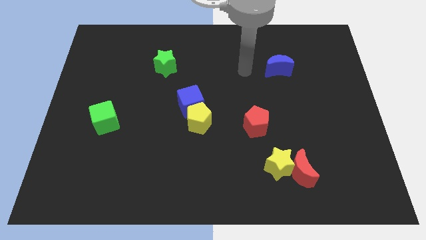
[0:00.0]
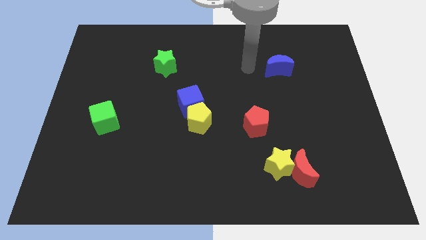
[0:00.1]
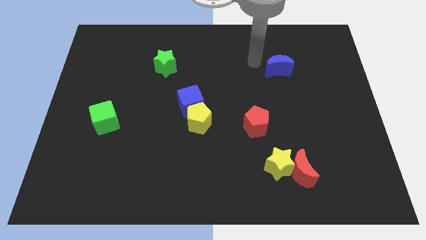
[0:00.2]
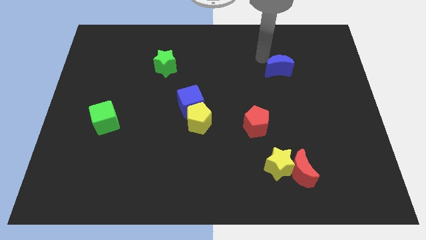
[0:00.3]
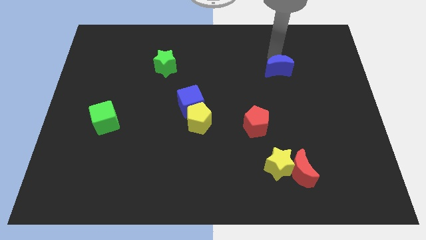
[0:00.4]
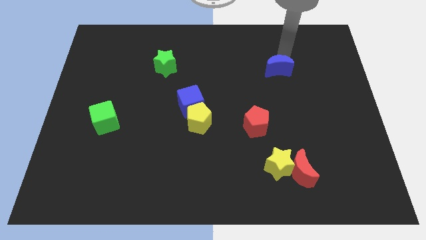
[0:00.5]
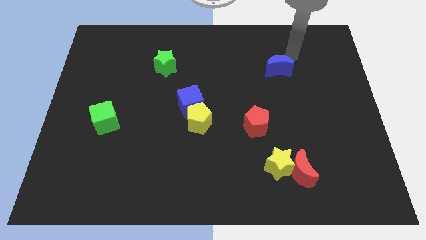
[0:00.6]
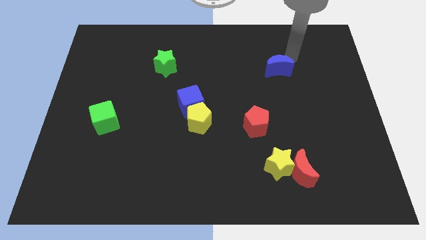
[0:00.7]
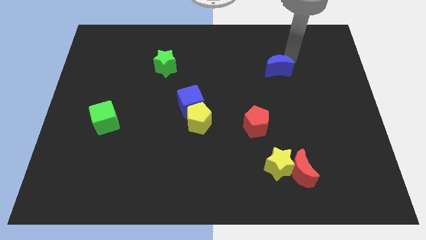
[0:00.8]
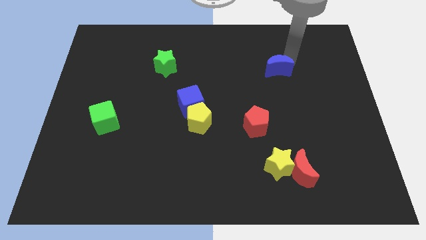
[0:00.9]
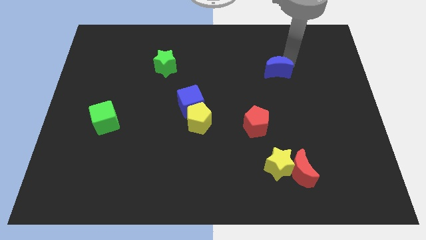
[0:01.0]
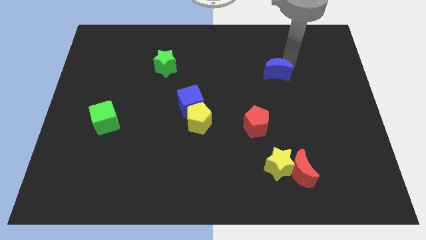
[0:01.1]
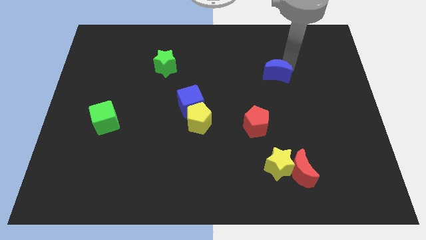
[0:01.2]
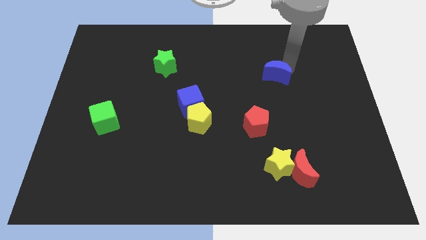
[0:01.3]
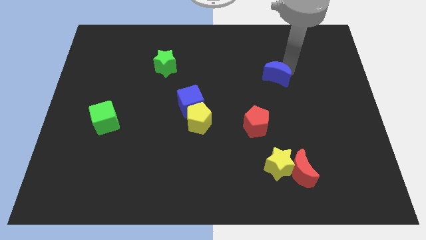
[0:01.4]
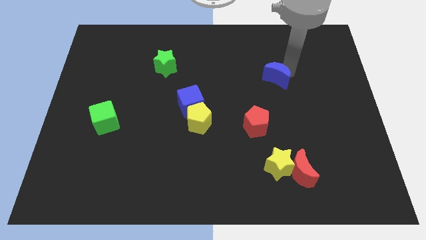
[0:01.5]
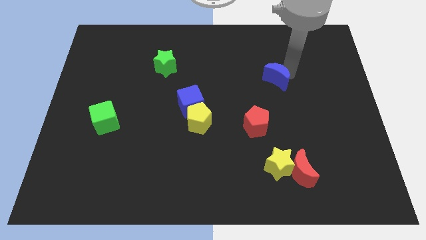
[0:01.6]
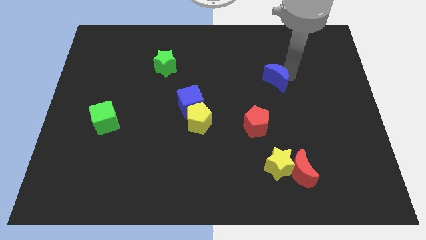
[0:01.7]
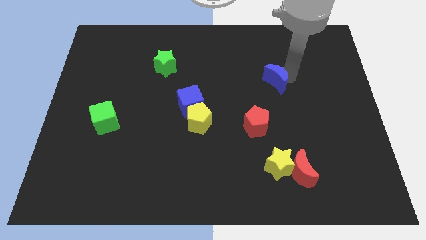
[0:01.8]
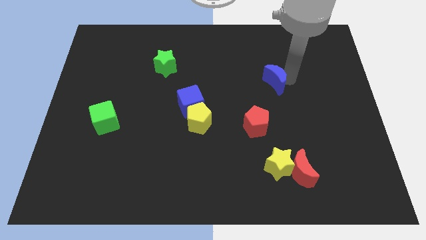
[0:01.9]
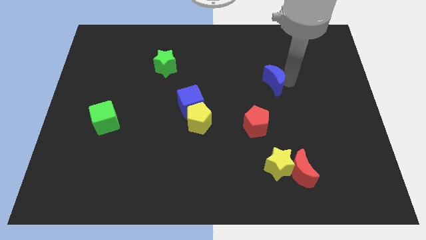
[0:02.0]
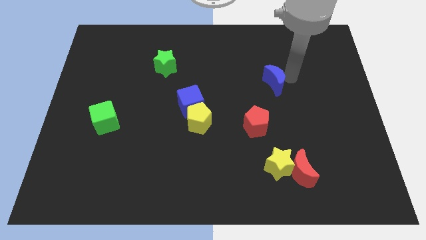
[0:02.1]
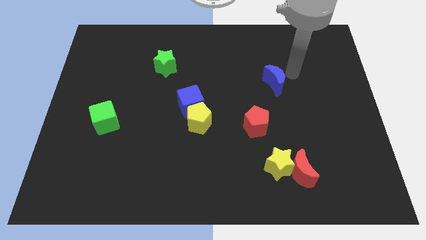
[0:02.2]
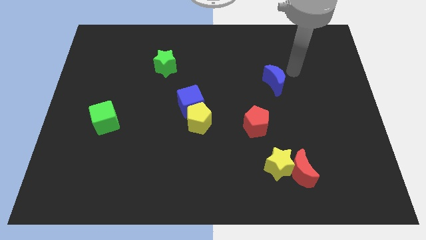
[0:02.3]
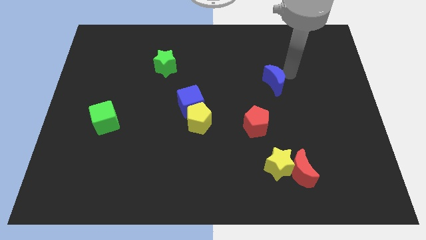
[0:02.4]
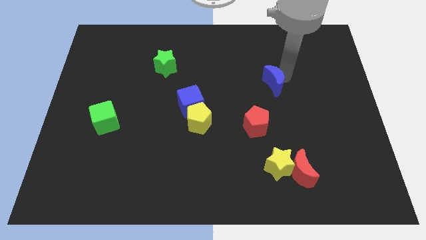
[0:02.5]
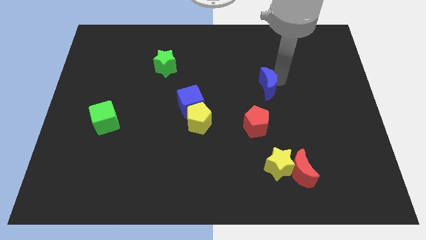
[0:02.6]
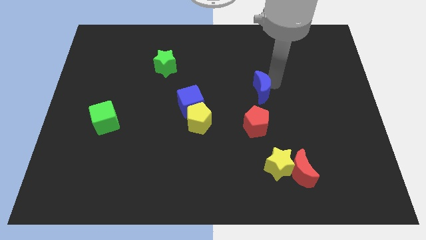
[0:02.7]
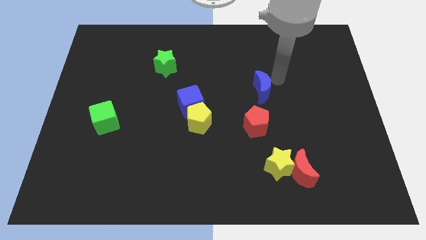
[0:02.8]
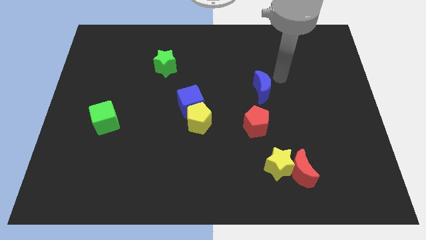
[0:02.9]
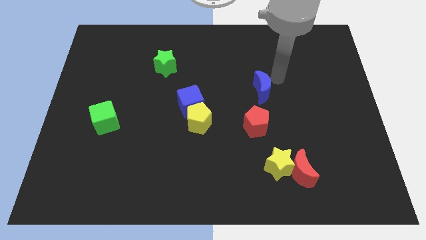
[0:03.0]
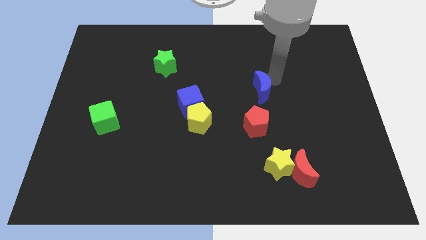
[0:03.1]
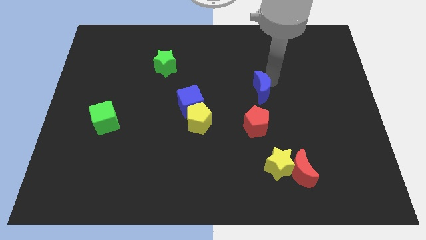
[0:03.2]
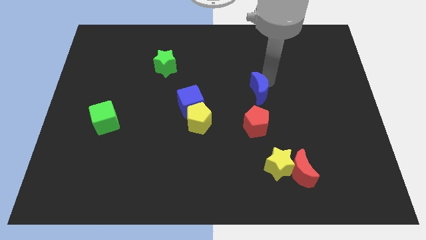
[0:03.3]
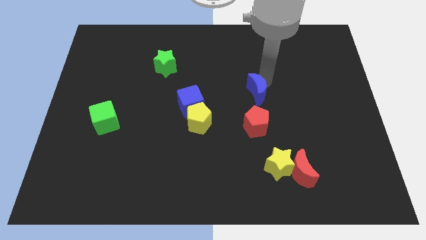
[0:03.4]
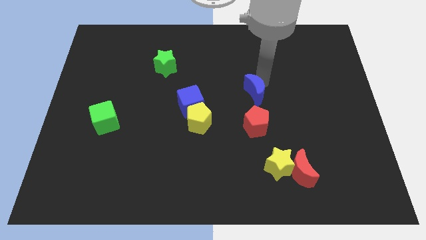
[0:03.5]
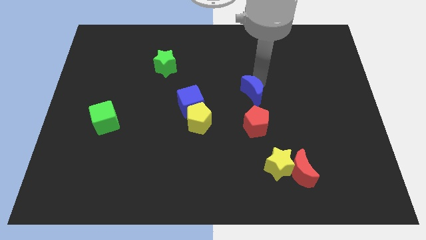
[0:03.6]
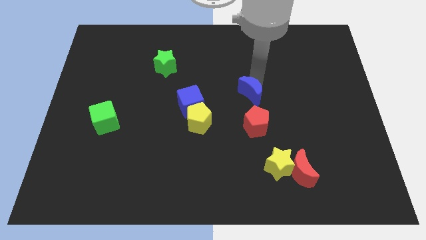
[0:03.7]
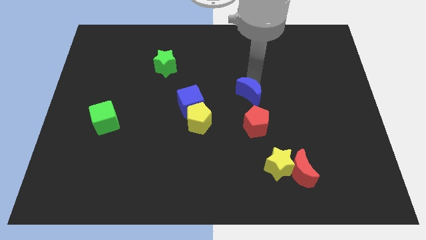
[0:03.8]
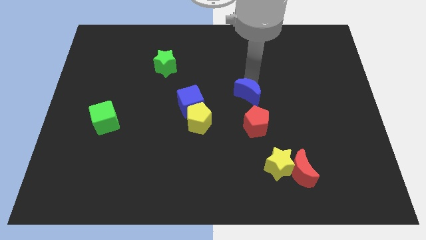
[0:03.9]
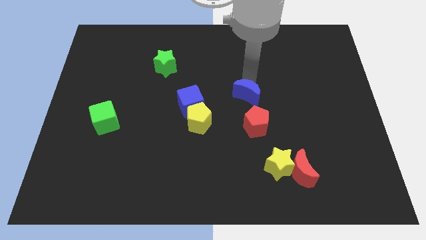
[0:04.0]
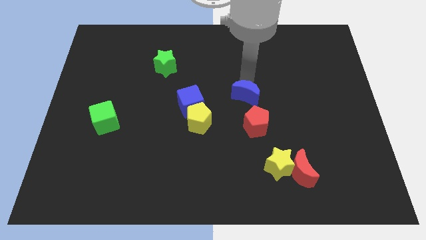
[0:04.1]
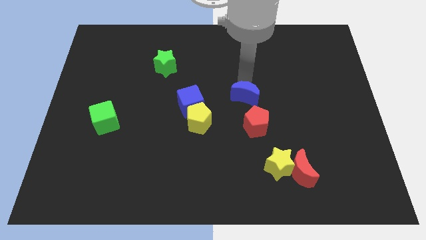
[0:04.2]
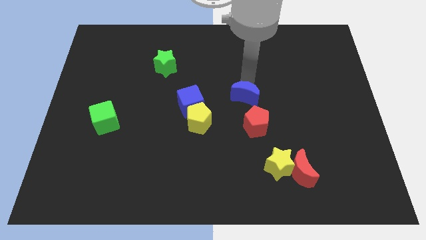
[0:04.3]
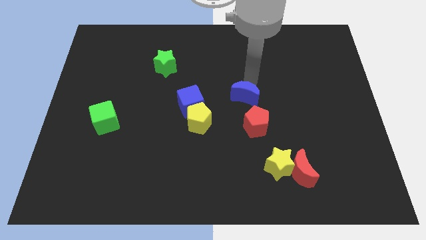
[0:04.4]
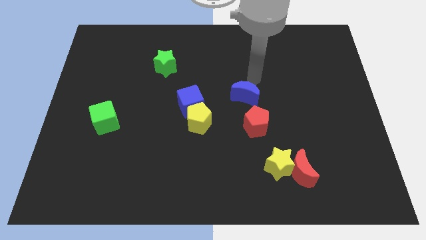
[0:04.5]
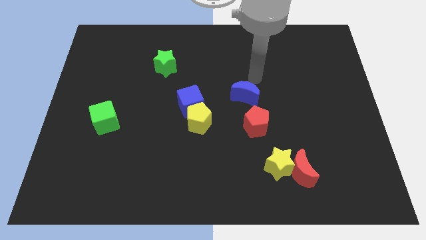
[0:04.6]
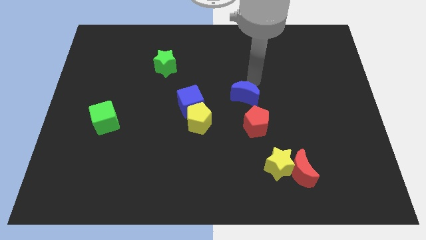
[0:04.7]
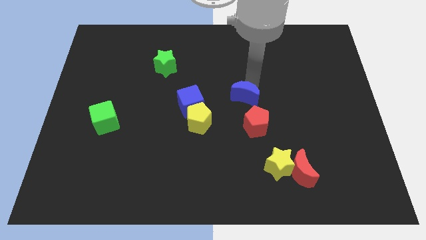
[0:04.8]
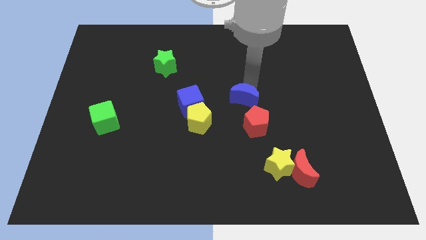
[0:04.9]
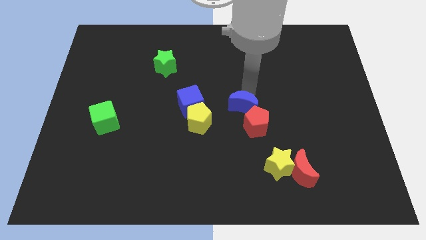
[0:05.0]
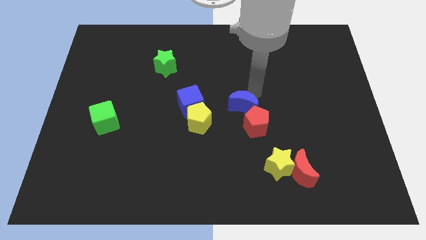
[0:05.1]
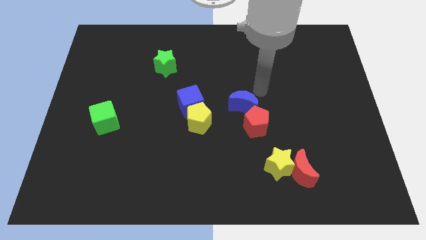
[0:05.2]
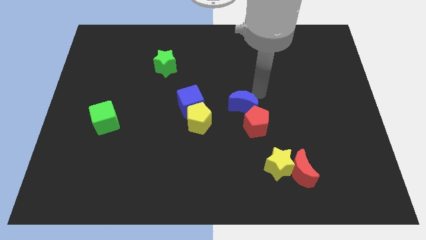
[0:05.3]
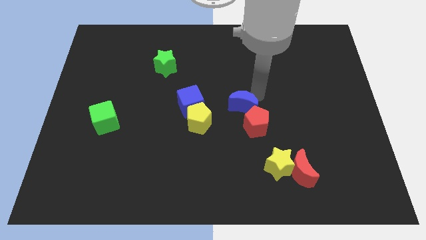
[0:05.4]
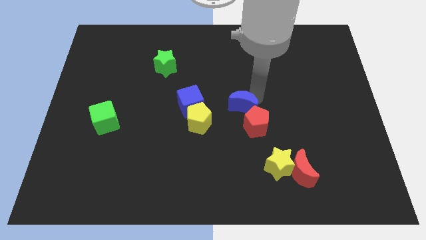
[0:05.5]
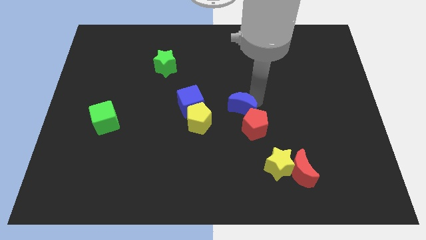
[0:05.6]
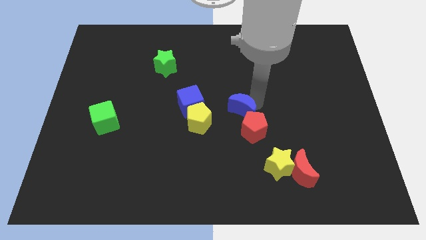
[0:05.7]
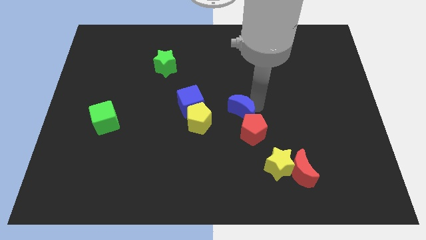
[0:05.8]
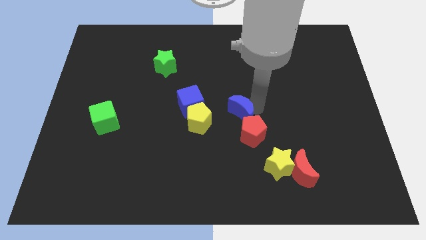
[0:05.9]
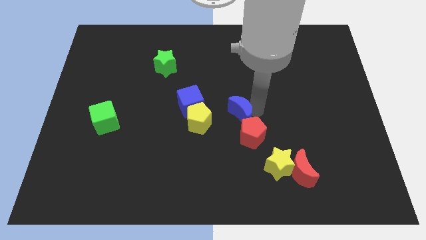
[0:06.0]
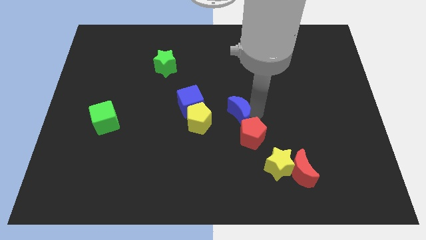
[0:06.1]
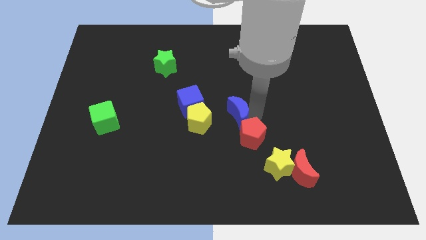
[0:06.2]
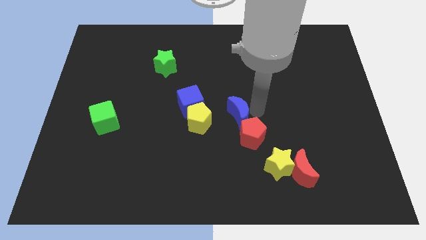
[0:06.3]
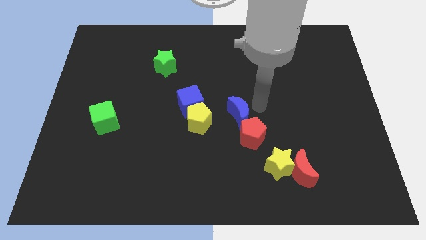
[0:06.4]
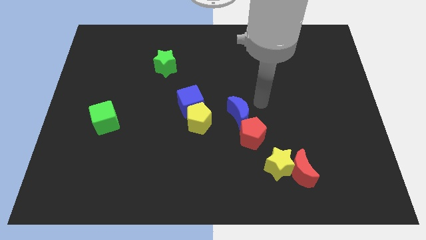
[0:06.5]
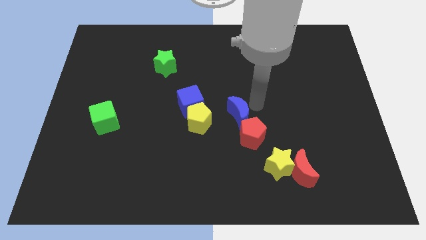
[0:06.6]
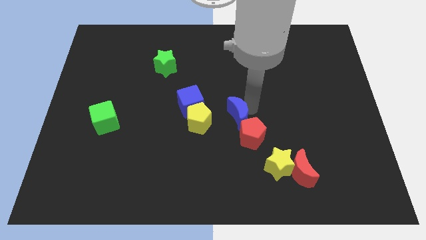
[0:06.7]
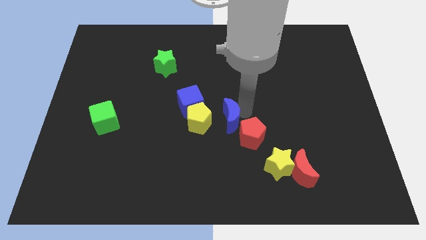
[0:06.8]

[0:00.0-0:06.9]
slide the blue moon diagonally down and to the left

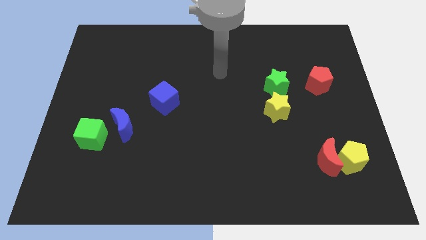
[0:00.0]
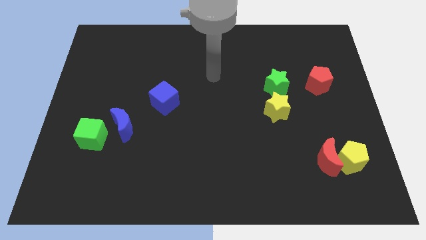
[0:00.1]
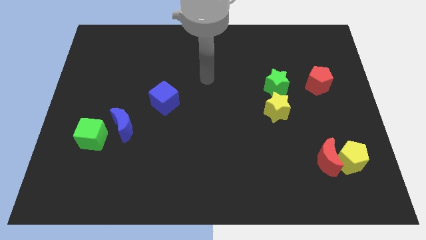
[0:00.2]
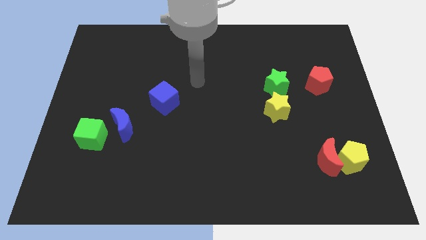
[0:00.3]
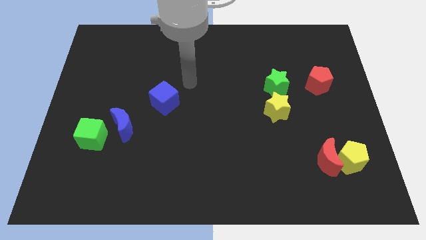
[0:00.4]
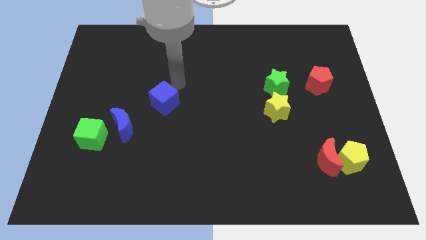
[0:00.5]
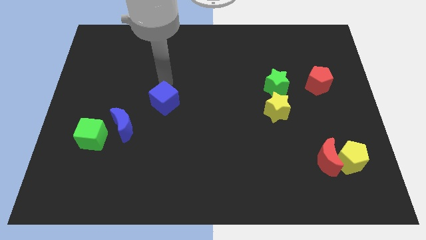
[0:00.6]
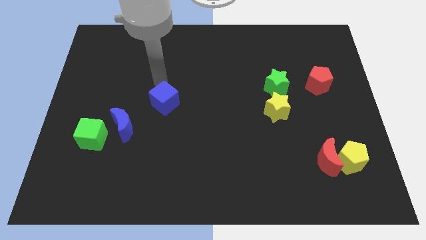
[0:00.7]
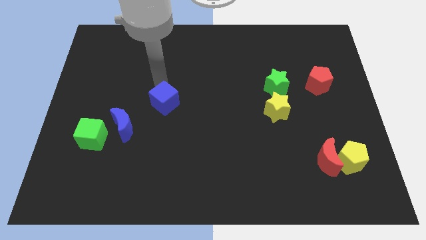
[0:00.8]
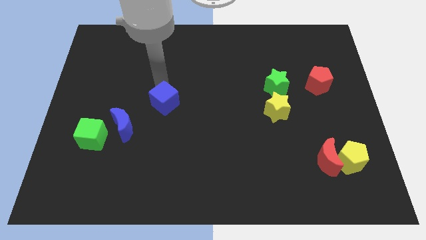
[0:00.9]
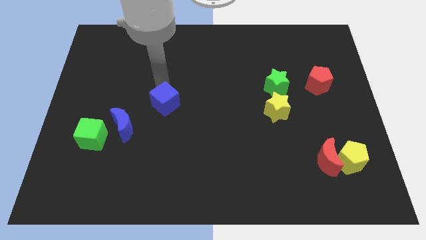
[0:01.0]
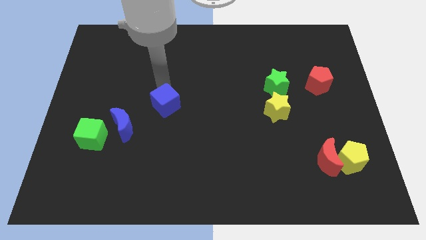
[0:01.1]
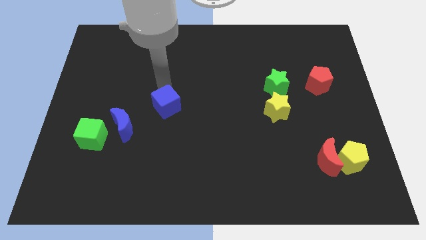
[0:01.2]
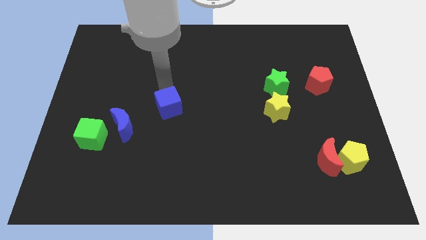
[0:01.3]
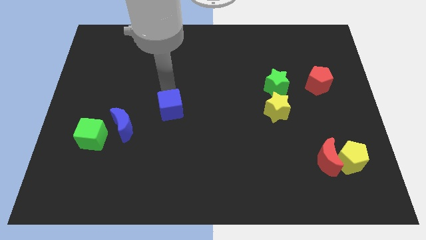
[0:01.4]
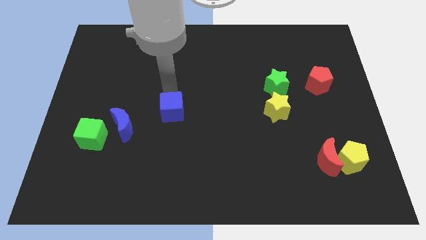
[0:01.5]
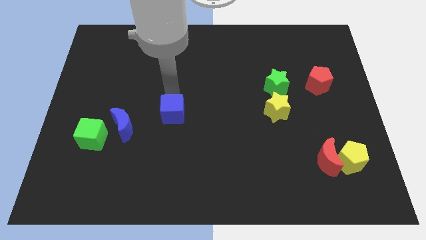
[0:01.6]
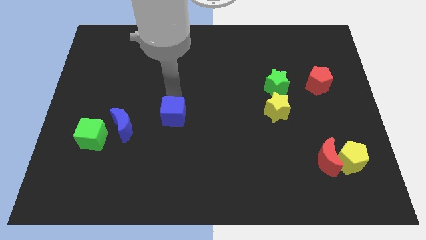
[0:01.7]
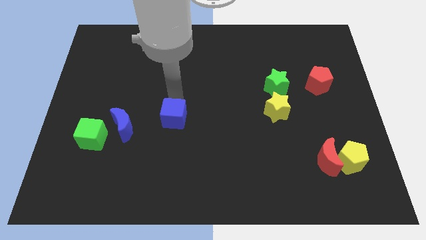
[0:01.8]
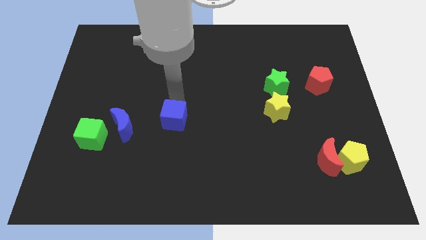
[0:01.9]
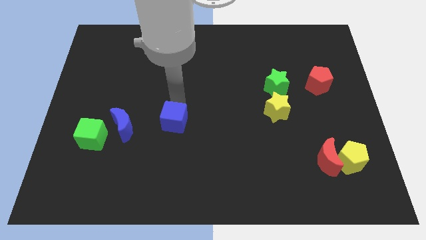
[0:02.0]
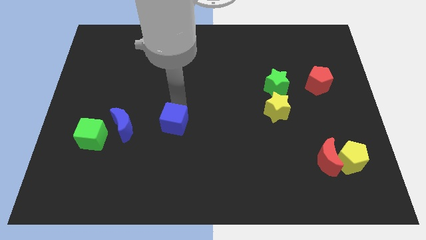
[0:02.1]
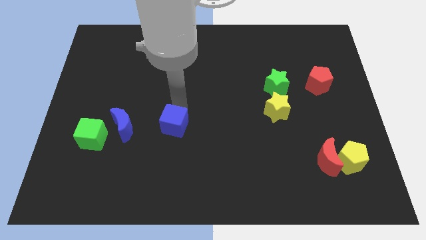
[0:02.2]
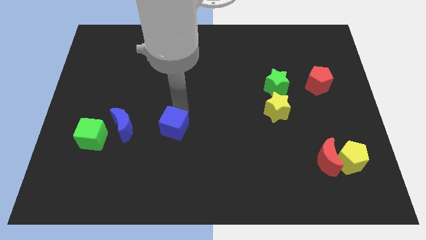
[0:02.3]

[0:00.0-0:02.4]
slide the blue cube down a little bit
